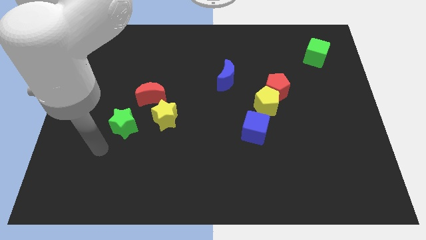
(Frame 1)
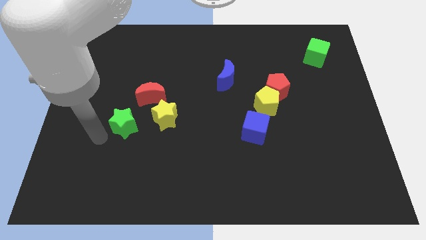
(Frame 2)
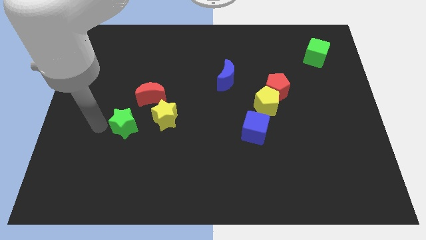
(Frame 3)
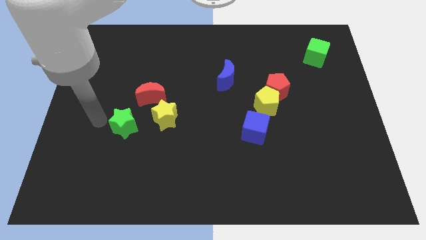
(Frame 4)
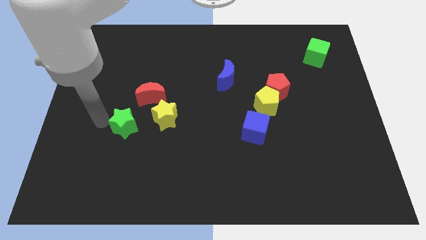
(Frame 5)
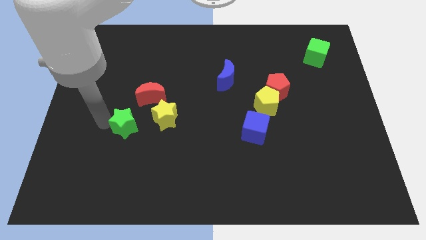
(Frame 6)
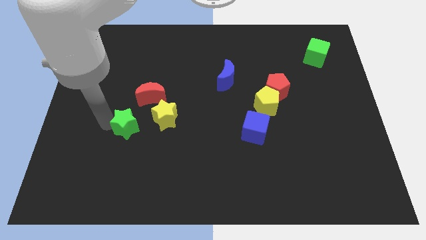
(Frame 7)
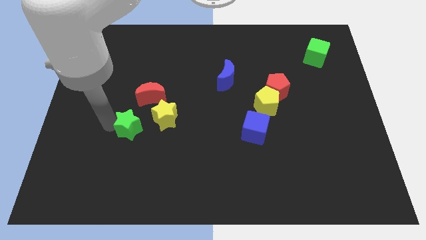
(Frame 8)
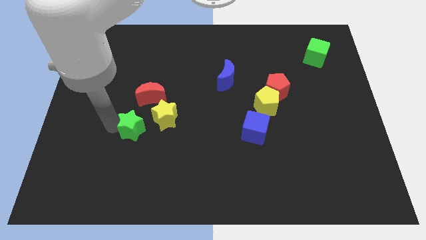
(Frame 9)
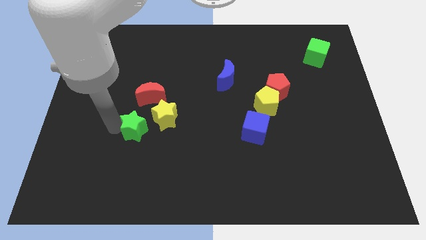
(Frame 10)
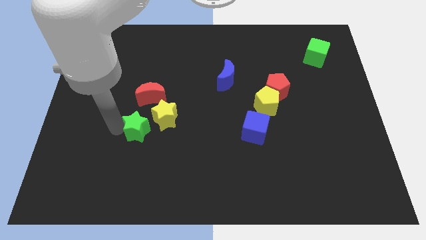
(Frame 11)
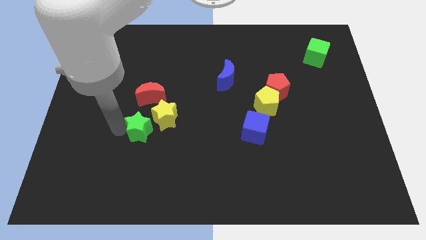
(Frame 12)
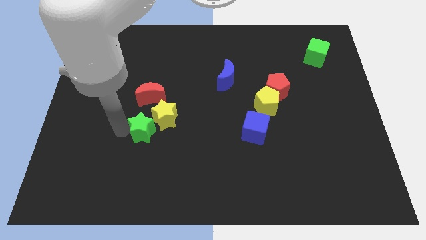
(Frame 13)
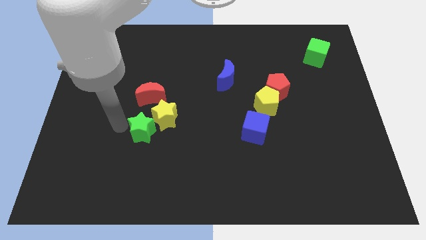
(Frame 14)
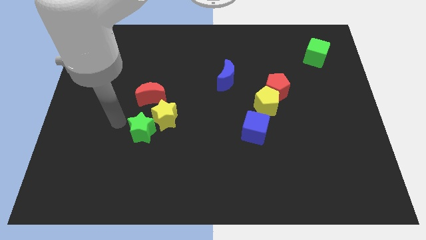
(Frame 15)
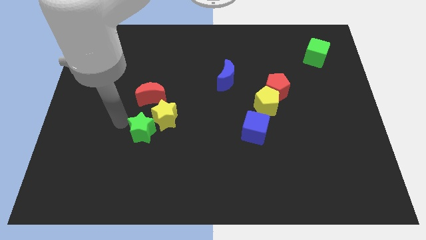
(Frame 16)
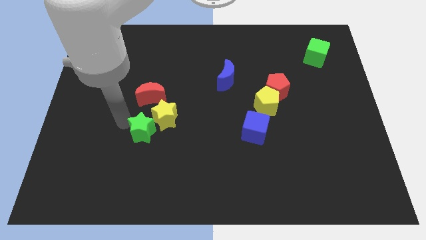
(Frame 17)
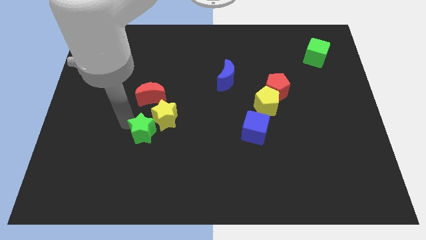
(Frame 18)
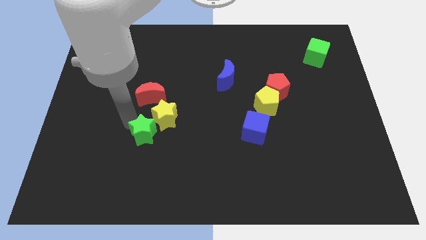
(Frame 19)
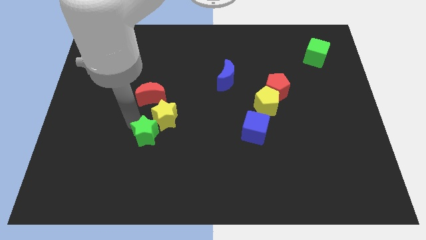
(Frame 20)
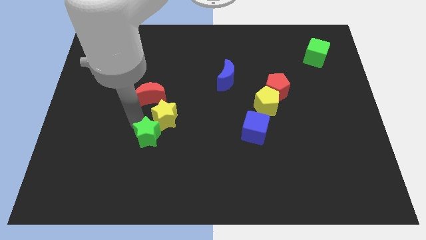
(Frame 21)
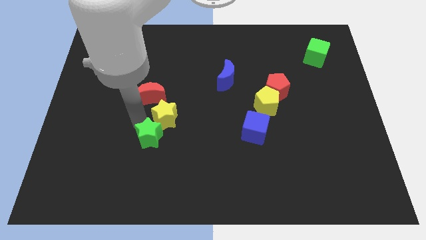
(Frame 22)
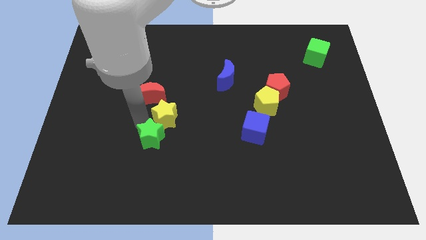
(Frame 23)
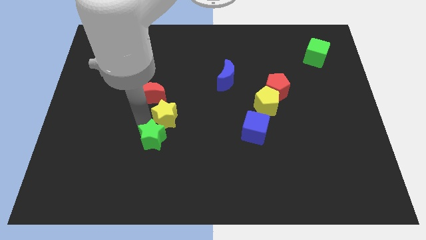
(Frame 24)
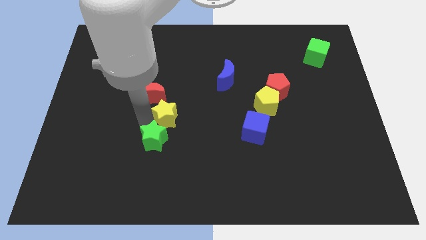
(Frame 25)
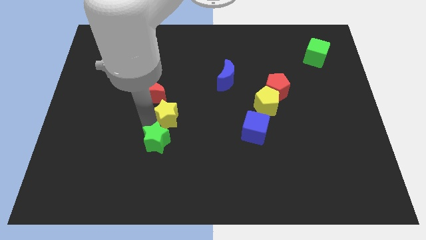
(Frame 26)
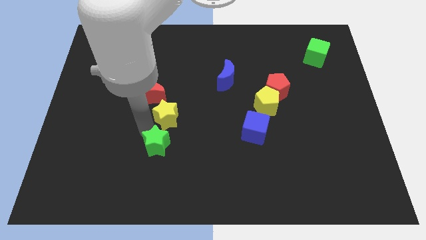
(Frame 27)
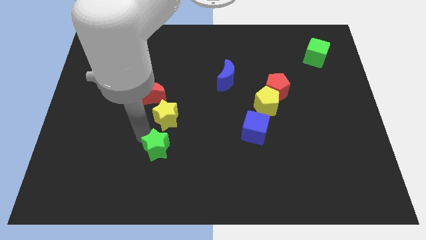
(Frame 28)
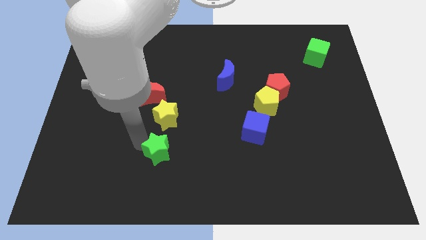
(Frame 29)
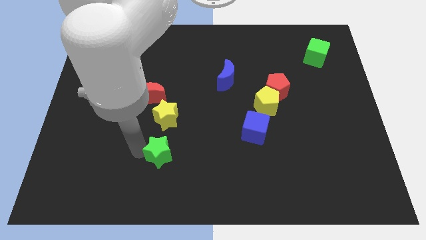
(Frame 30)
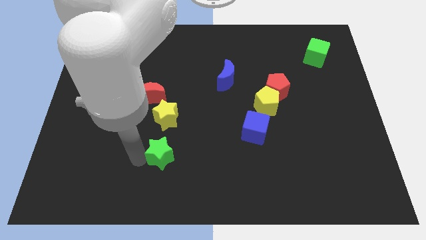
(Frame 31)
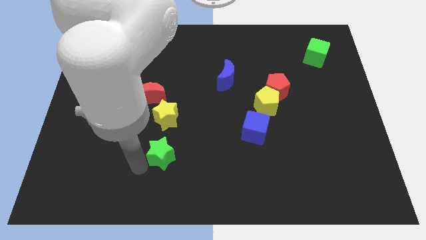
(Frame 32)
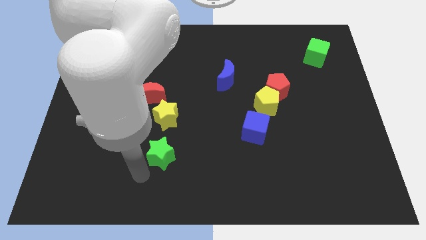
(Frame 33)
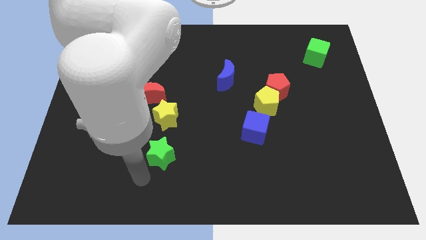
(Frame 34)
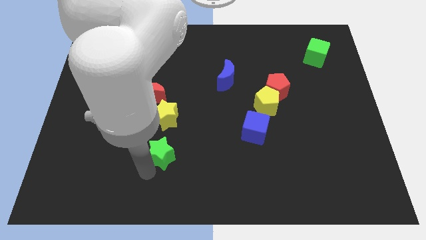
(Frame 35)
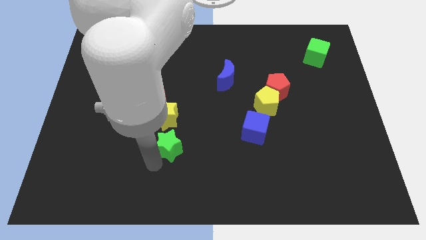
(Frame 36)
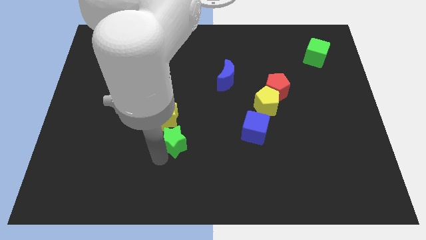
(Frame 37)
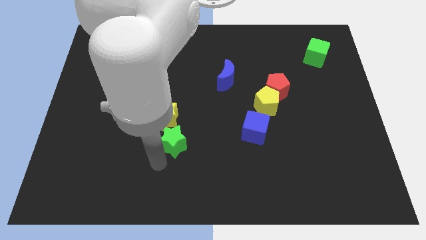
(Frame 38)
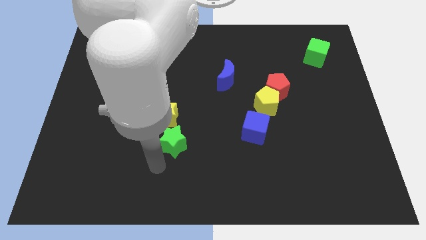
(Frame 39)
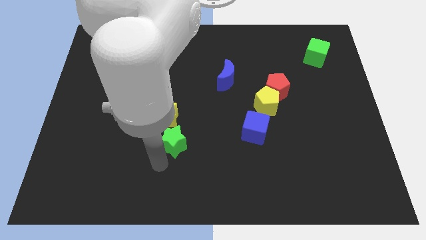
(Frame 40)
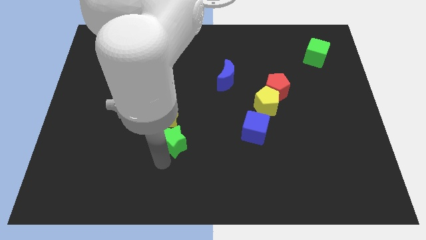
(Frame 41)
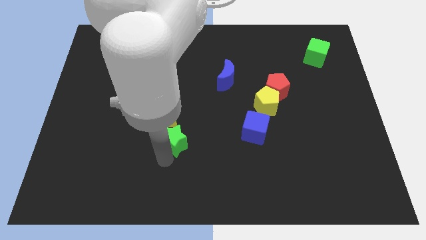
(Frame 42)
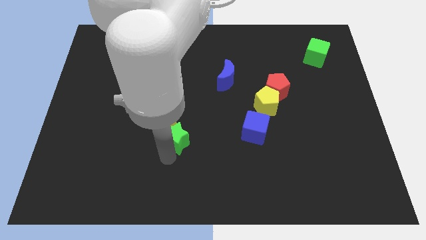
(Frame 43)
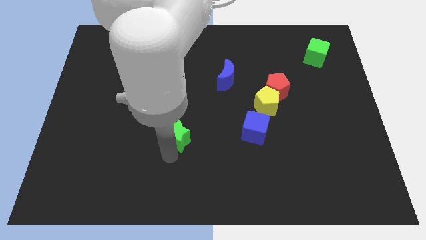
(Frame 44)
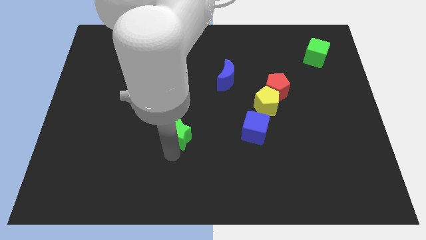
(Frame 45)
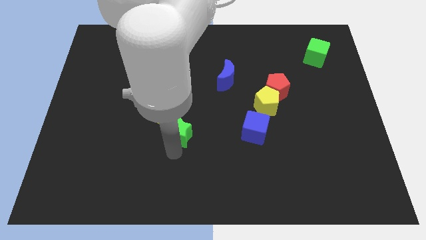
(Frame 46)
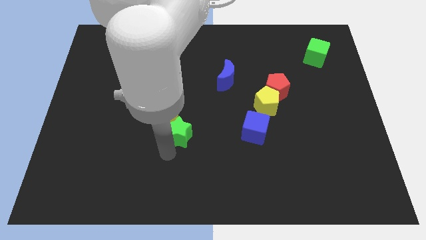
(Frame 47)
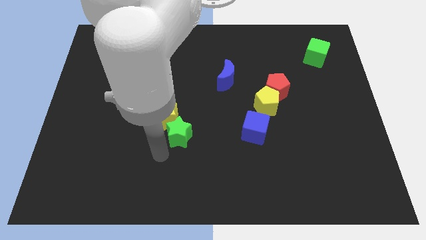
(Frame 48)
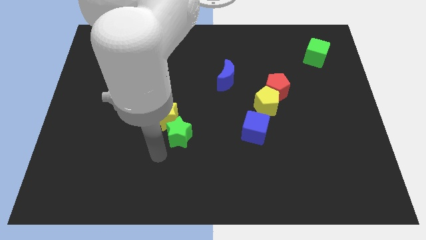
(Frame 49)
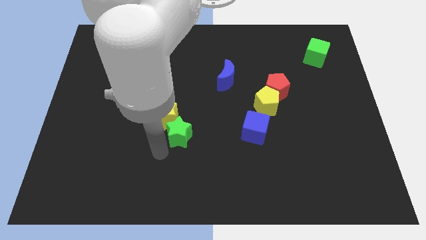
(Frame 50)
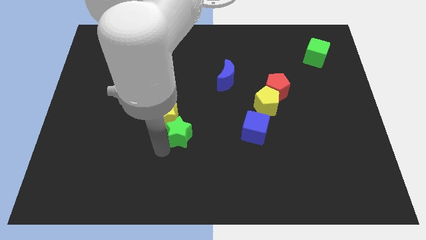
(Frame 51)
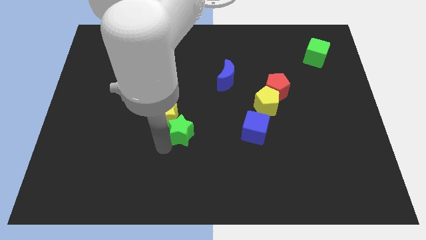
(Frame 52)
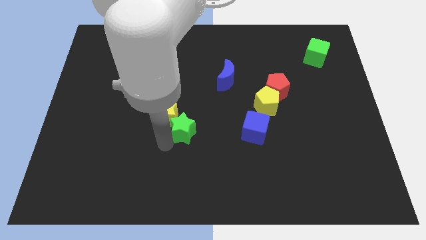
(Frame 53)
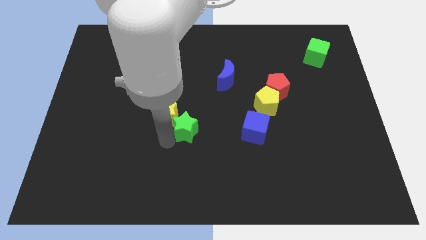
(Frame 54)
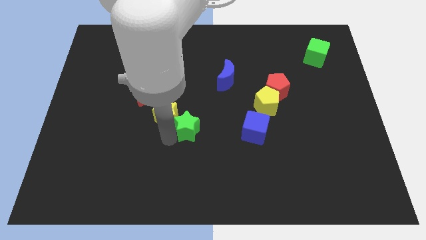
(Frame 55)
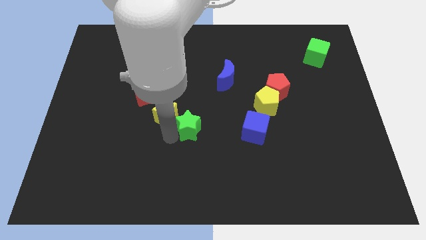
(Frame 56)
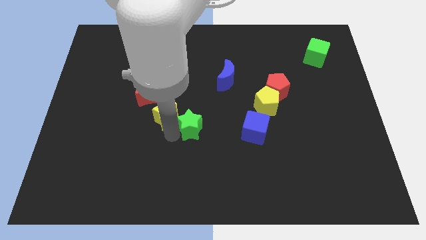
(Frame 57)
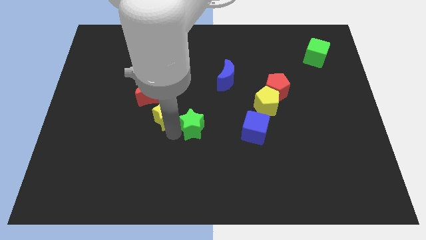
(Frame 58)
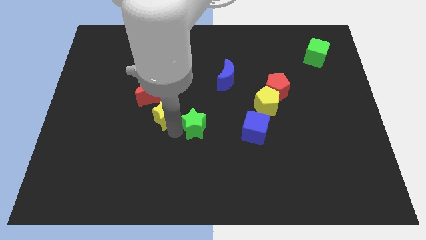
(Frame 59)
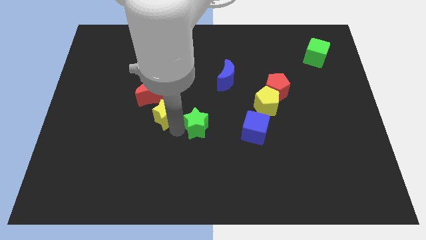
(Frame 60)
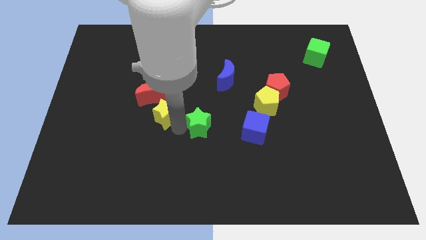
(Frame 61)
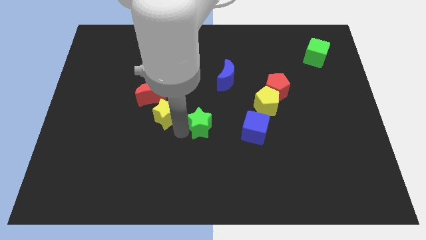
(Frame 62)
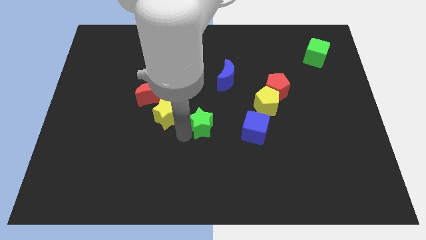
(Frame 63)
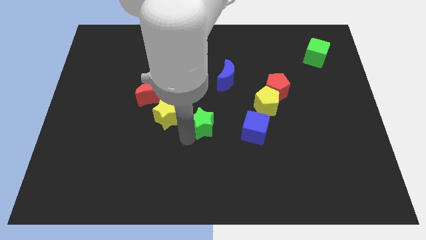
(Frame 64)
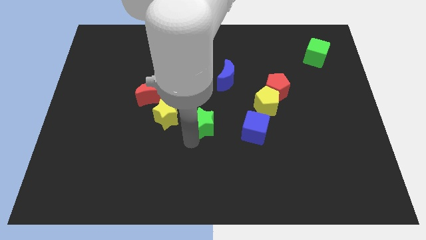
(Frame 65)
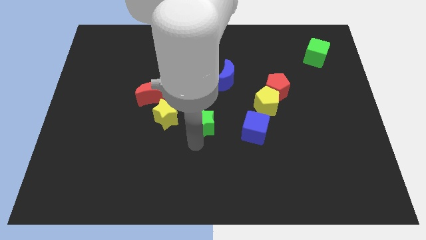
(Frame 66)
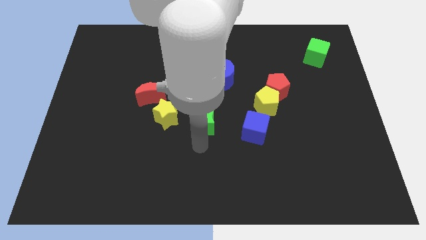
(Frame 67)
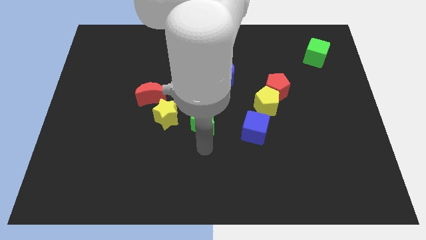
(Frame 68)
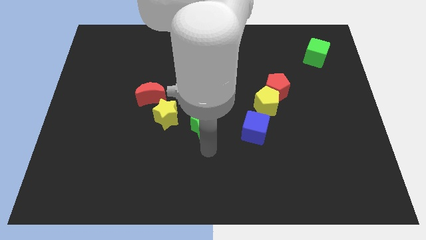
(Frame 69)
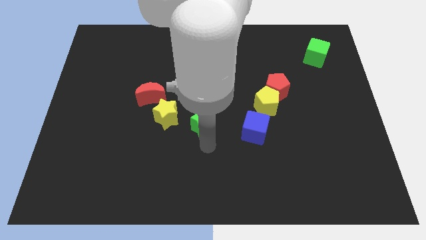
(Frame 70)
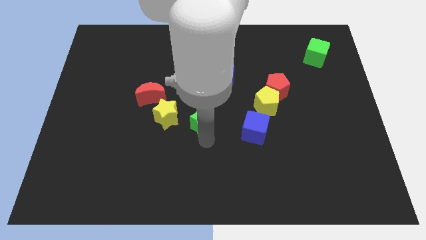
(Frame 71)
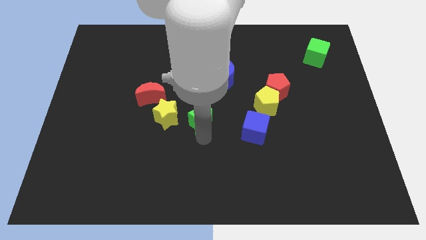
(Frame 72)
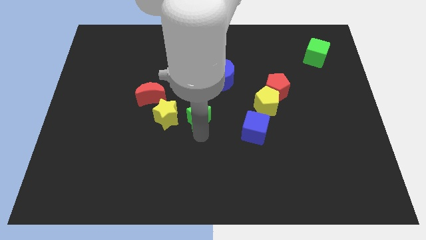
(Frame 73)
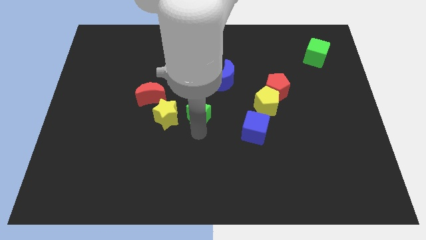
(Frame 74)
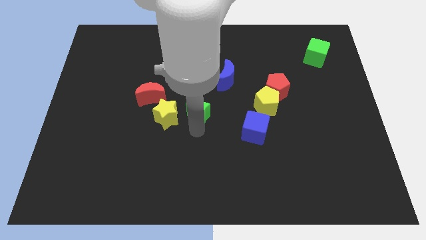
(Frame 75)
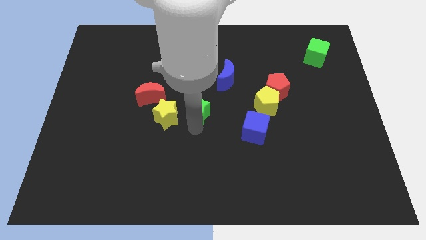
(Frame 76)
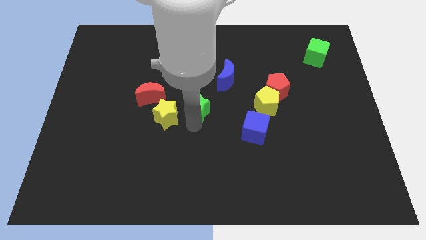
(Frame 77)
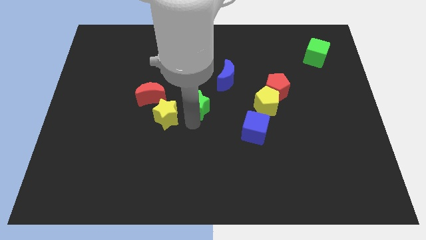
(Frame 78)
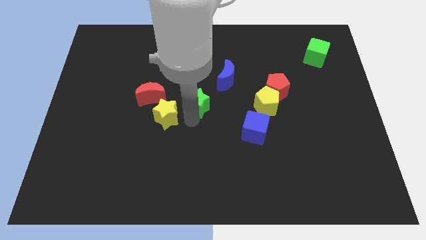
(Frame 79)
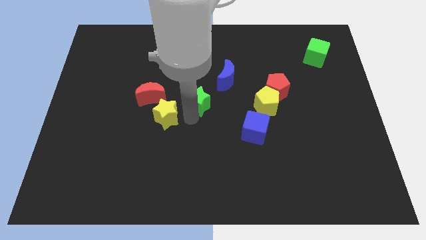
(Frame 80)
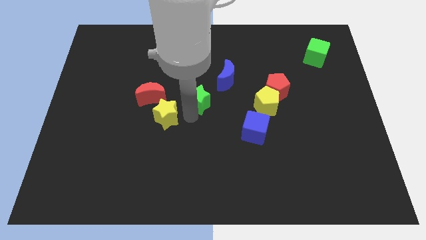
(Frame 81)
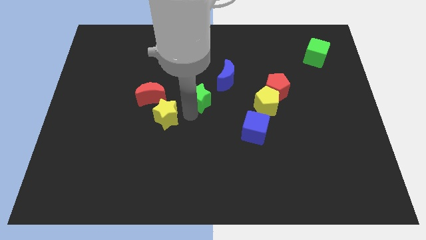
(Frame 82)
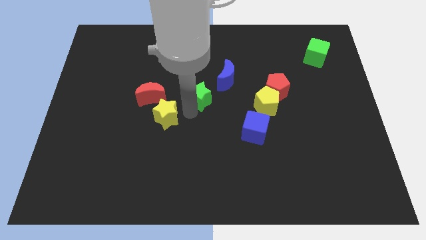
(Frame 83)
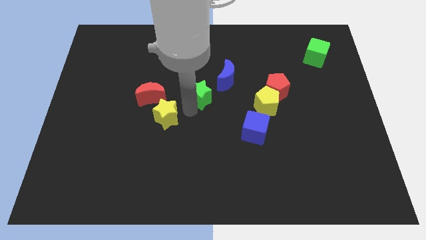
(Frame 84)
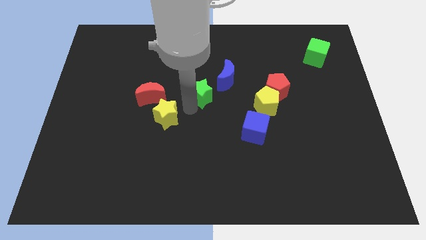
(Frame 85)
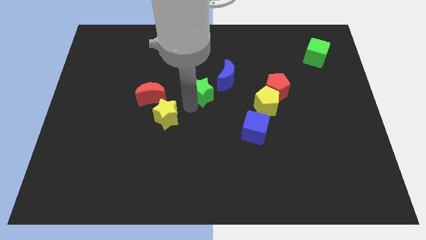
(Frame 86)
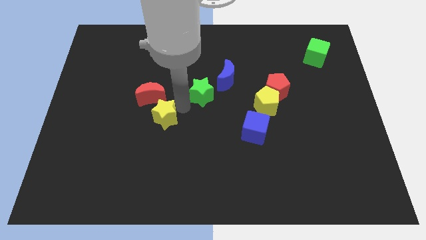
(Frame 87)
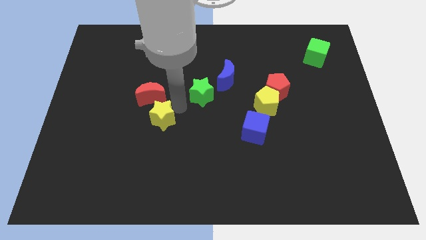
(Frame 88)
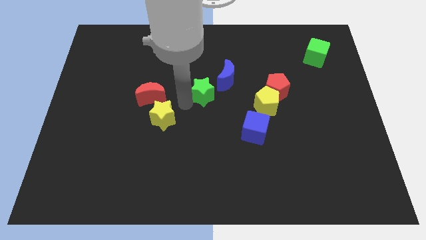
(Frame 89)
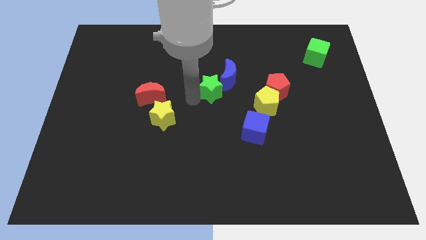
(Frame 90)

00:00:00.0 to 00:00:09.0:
put the green star close to the blue moon
